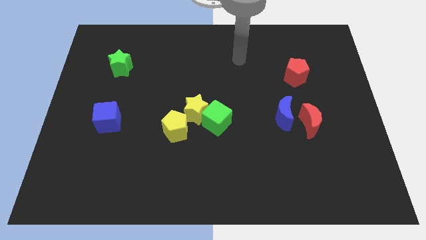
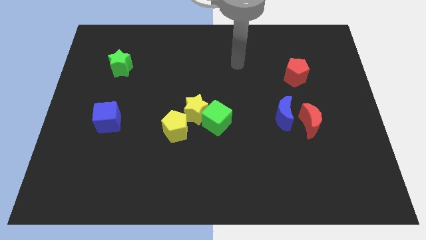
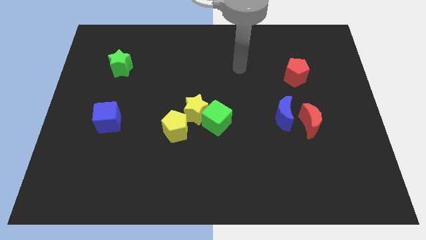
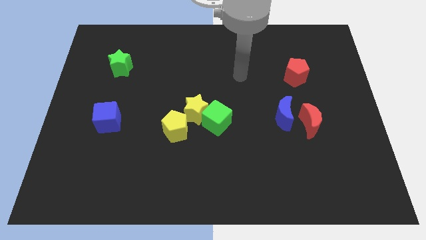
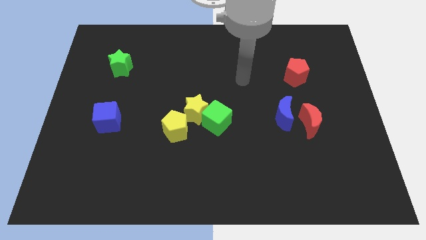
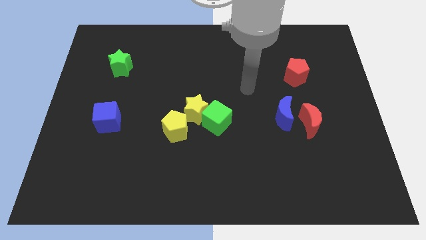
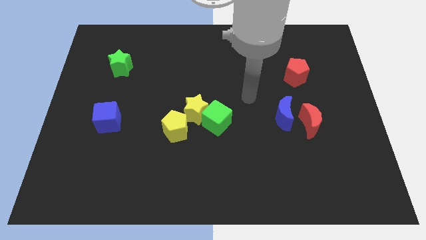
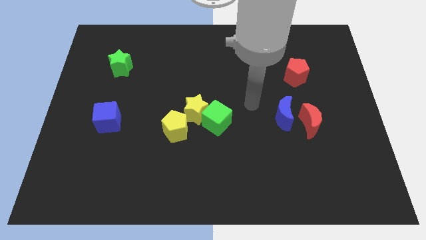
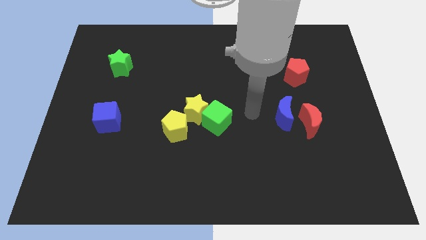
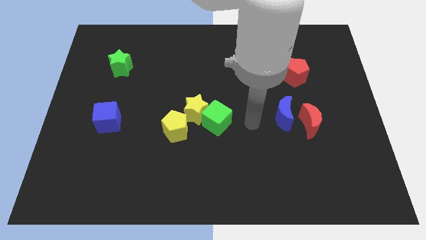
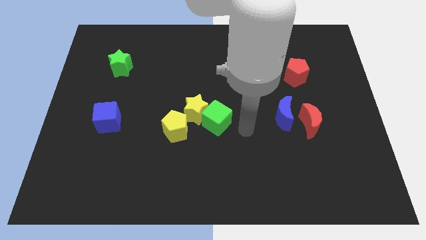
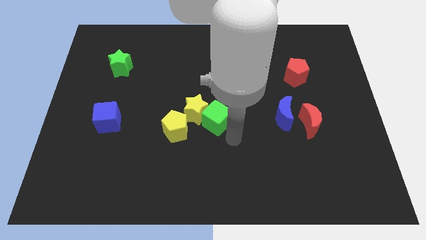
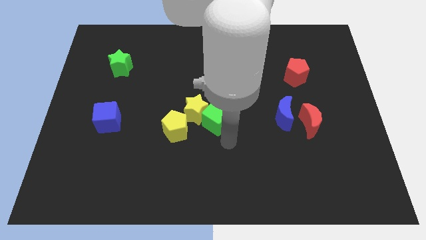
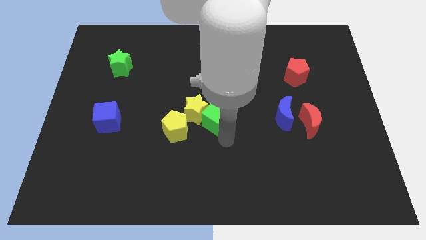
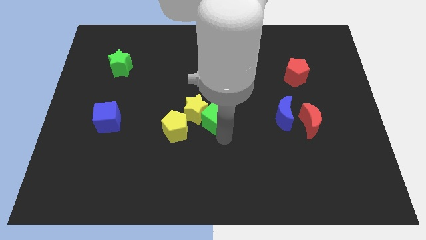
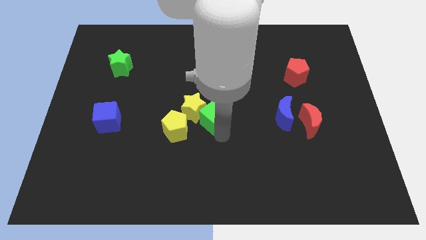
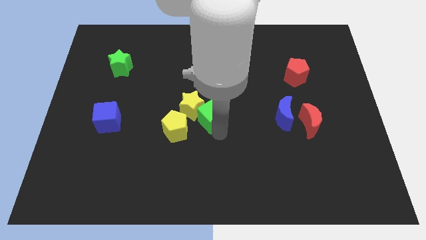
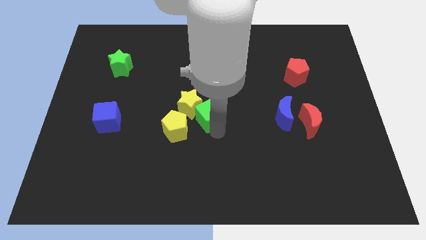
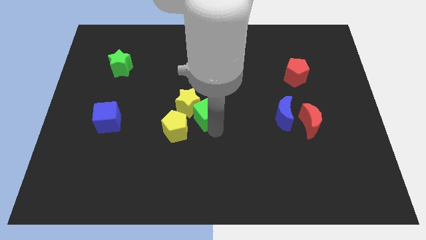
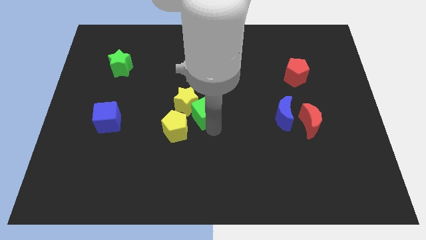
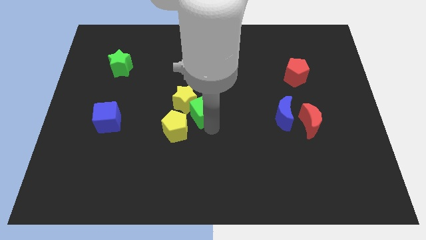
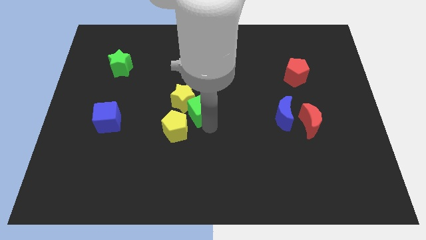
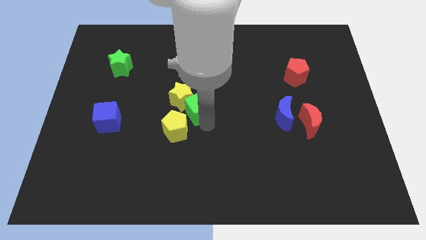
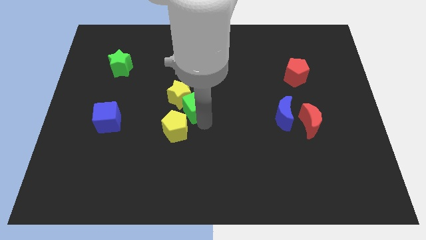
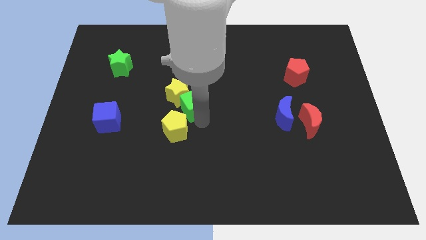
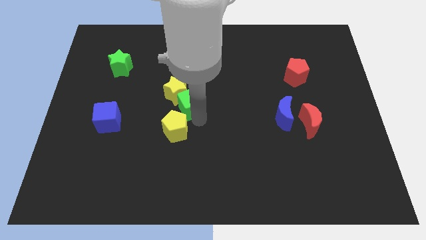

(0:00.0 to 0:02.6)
move the green cube up and to the left diagonally a little

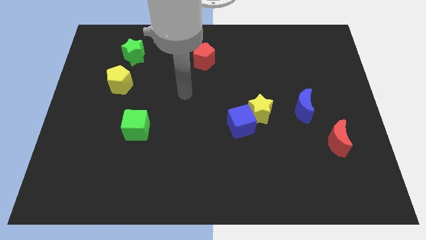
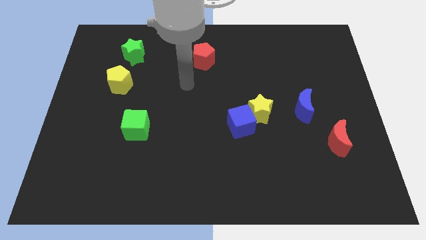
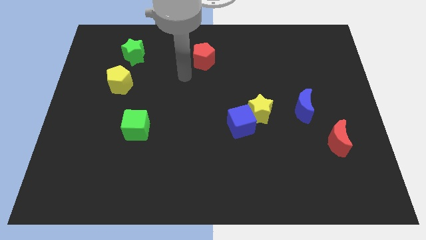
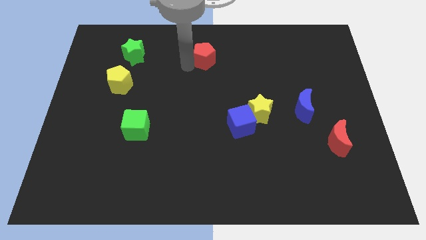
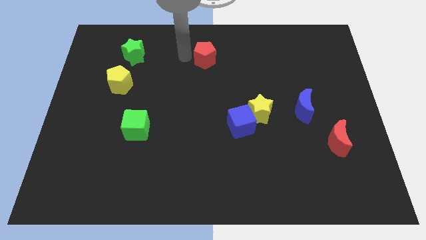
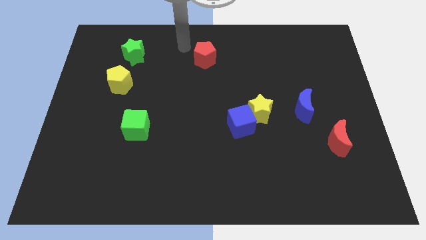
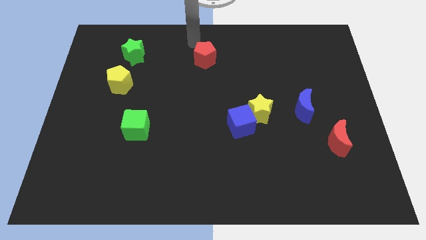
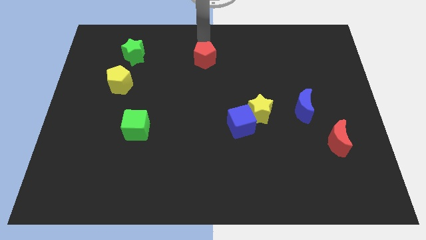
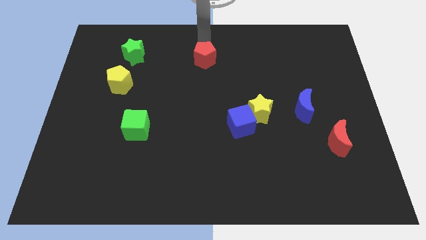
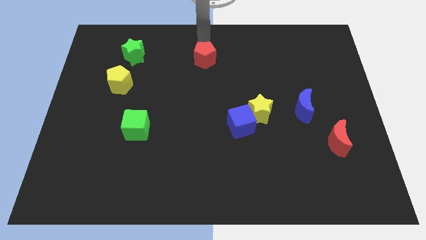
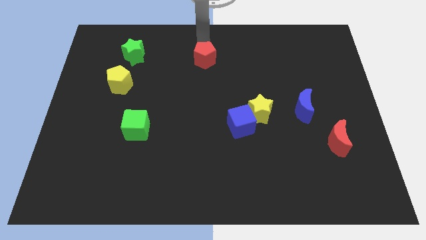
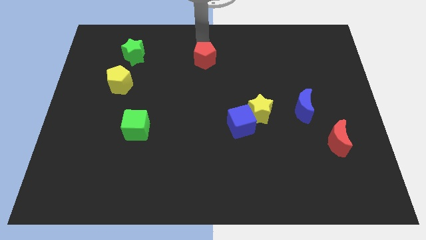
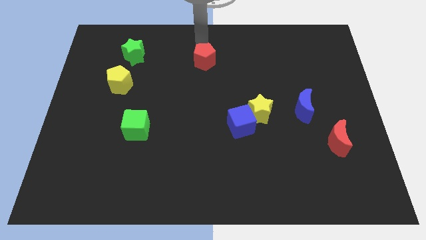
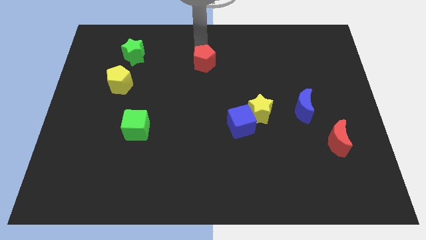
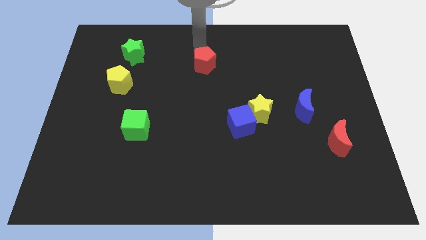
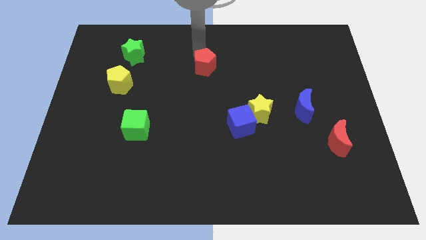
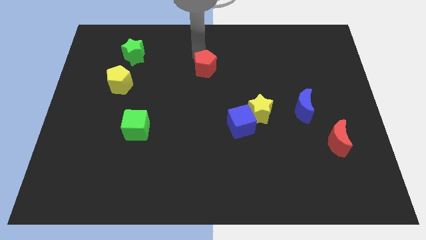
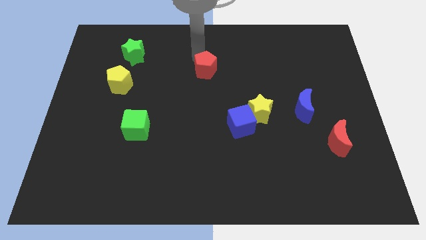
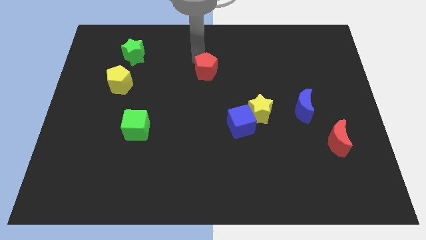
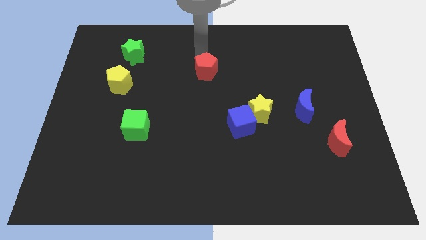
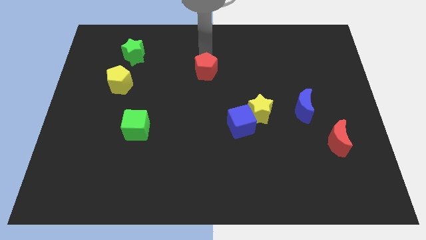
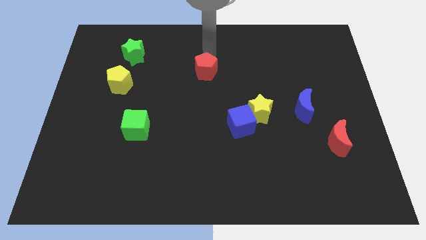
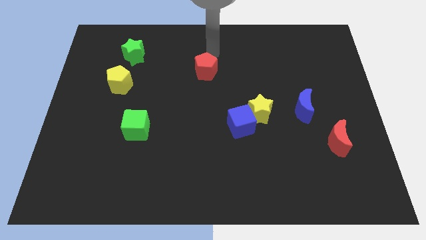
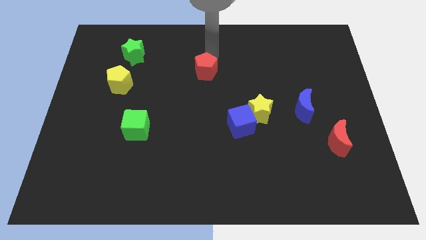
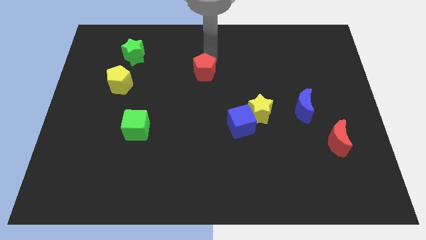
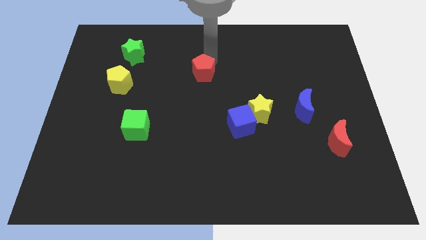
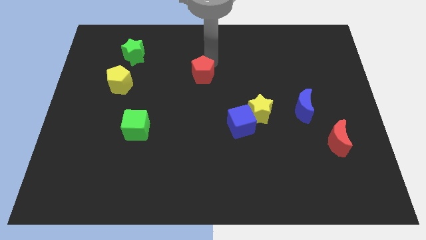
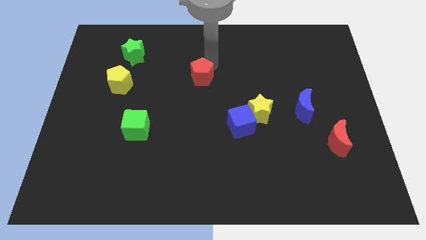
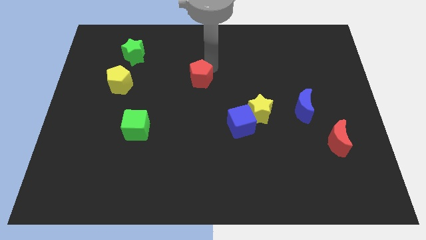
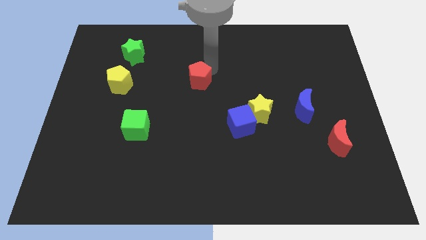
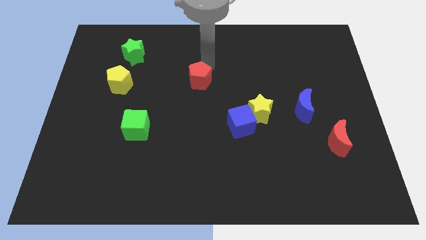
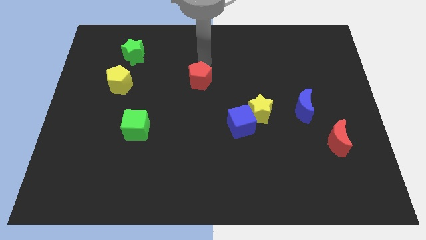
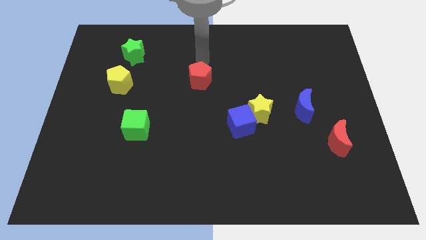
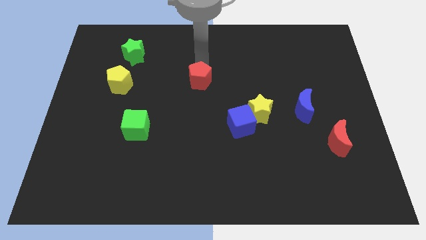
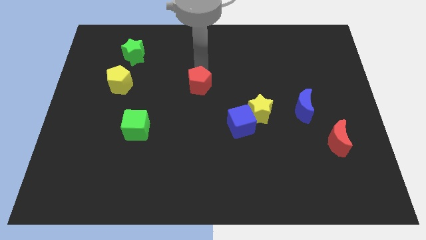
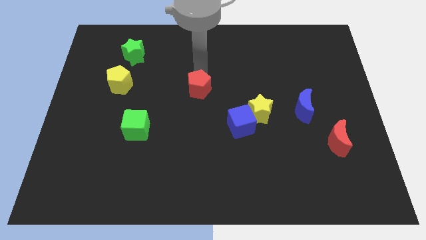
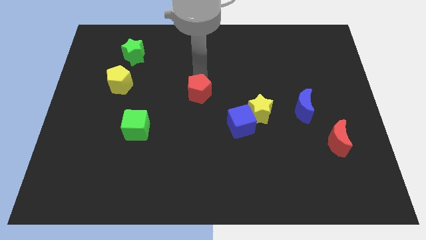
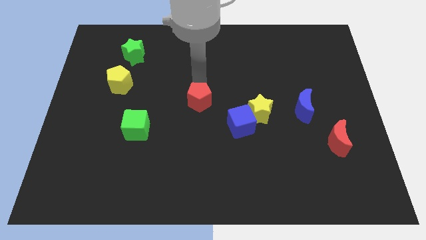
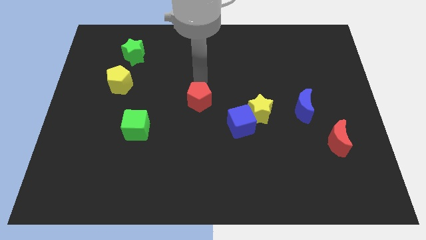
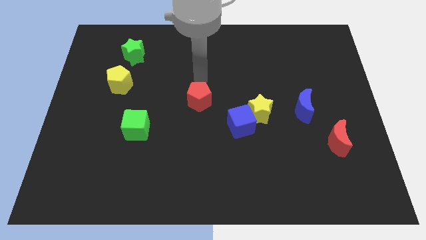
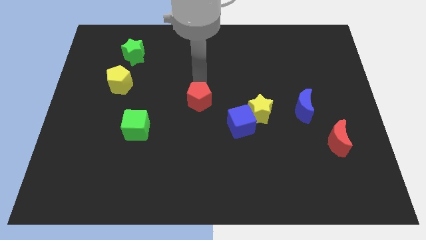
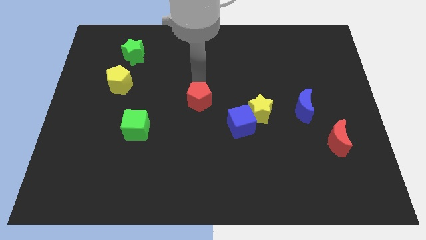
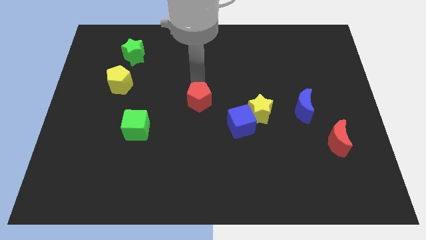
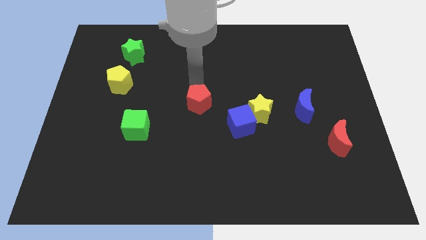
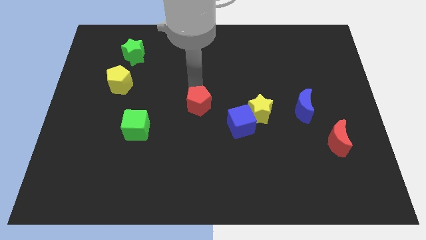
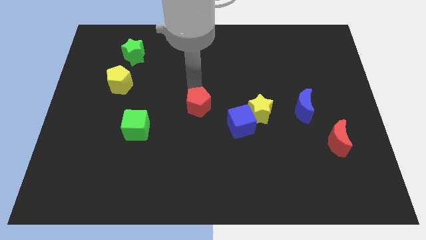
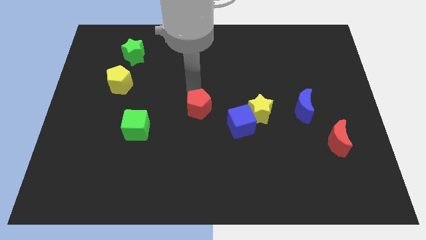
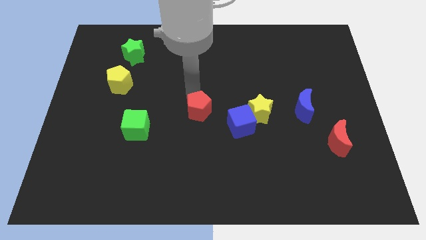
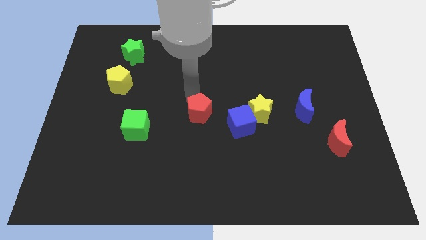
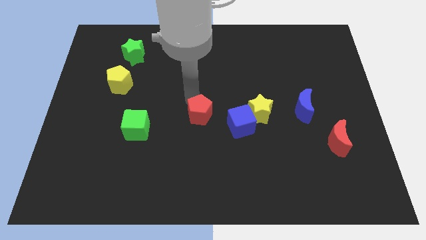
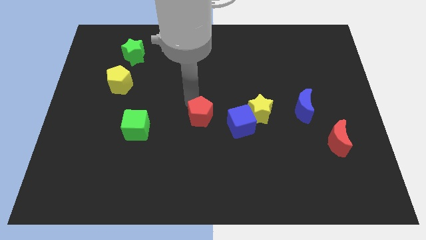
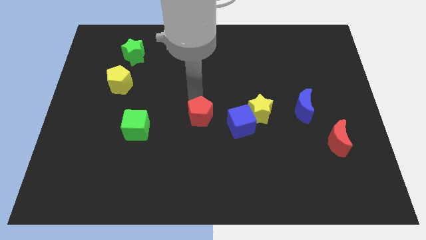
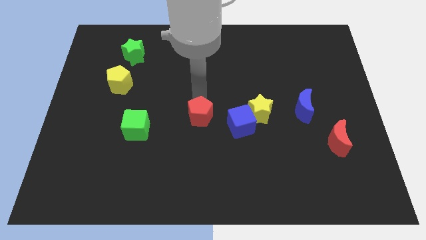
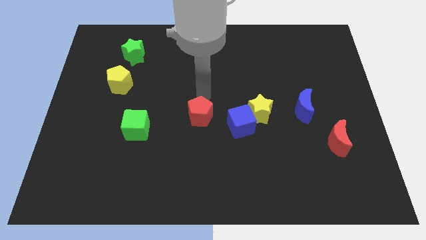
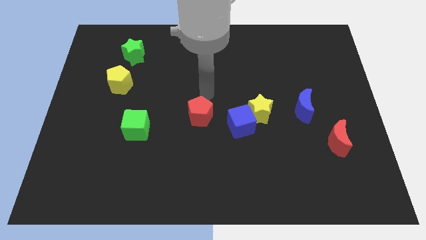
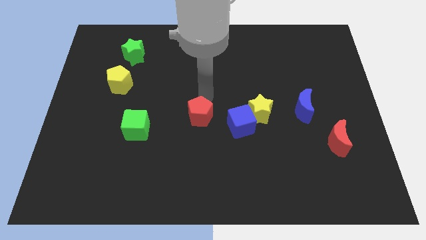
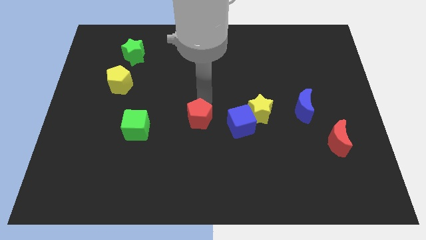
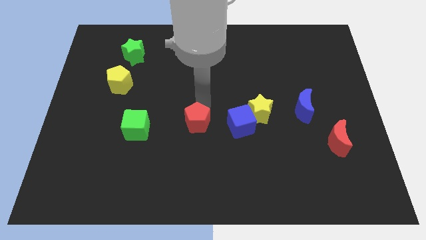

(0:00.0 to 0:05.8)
slide the red pentagon down
